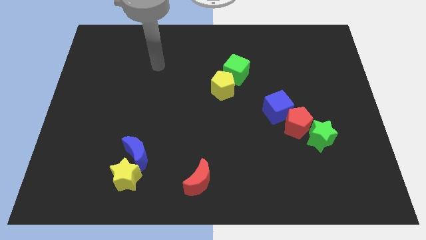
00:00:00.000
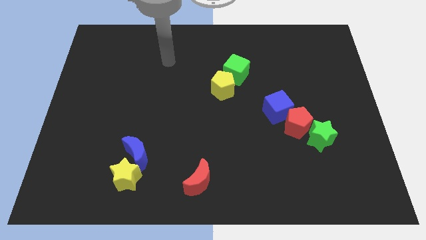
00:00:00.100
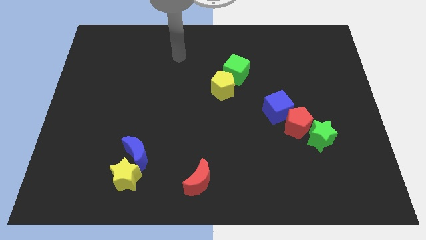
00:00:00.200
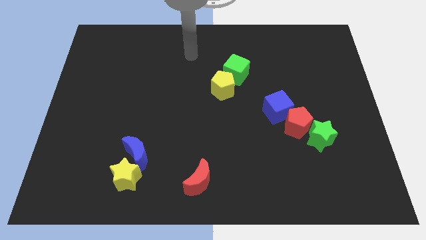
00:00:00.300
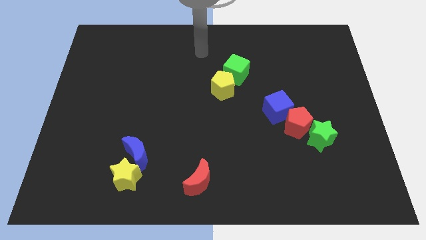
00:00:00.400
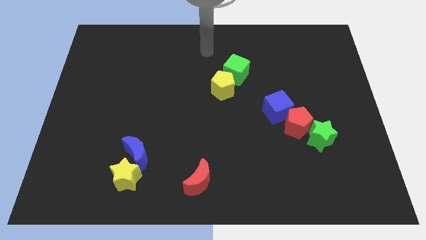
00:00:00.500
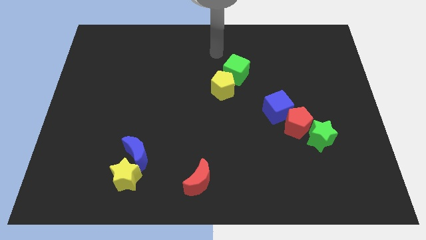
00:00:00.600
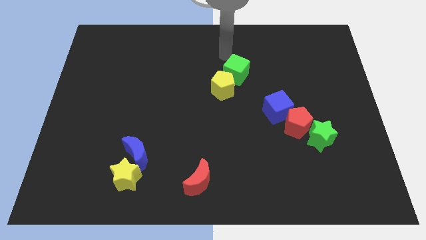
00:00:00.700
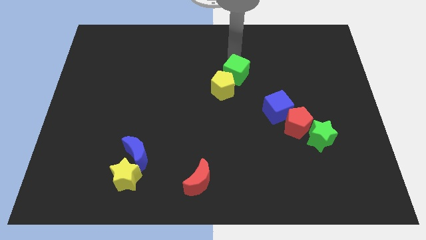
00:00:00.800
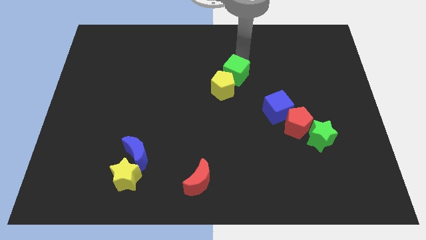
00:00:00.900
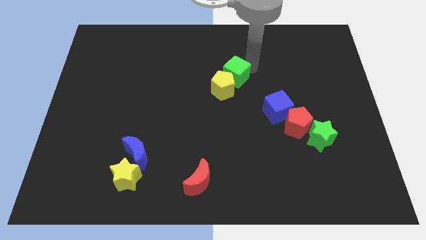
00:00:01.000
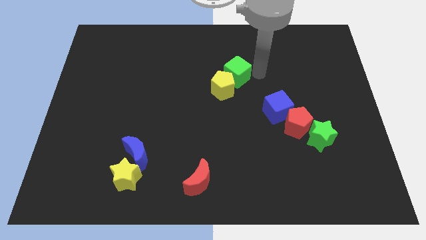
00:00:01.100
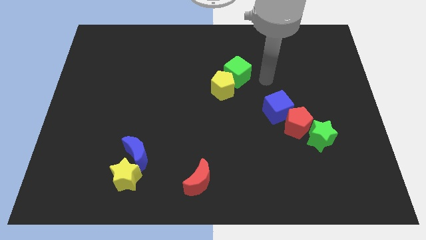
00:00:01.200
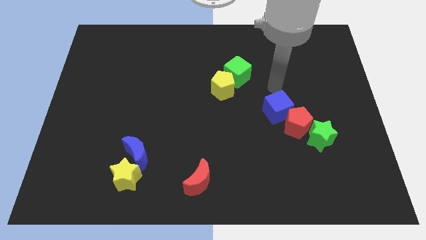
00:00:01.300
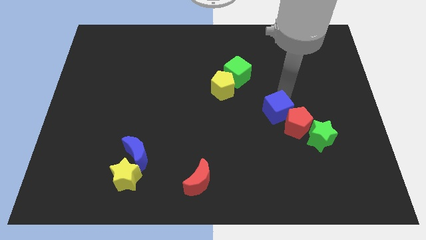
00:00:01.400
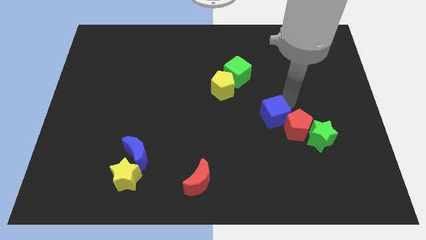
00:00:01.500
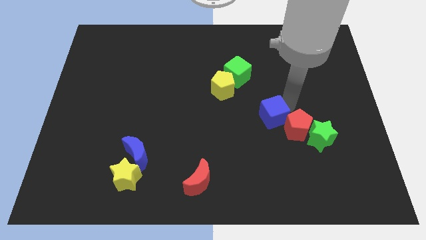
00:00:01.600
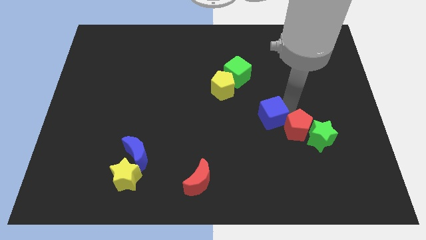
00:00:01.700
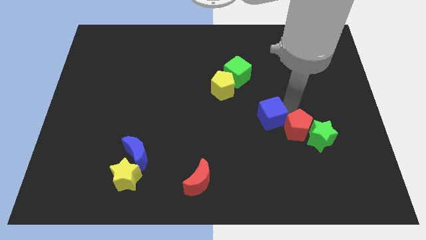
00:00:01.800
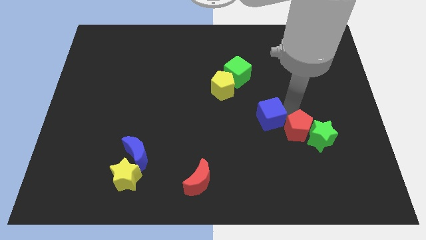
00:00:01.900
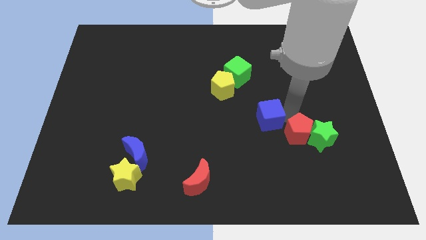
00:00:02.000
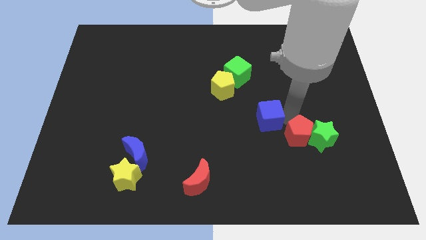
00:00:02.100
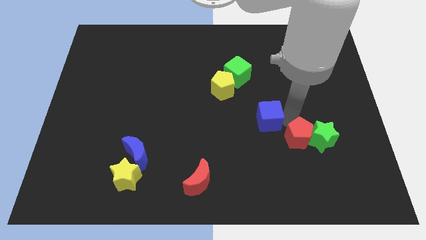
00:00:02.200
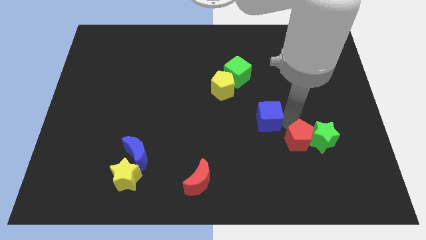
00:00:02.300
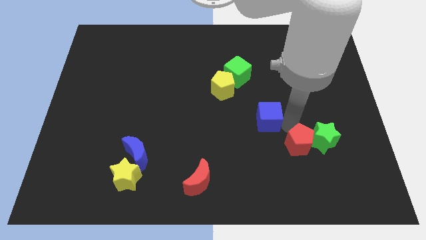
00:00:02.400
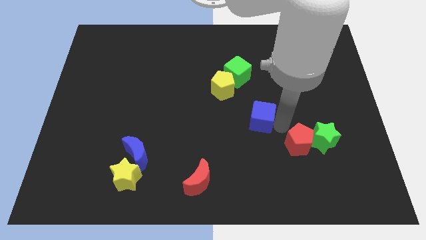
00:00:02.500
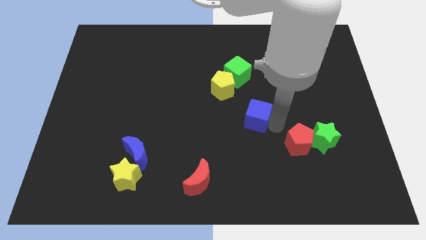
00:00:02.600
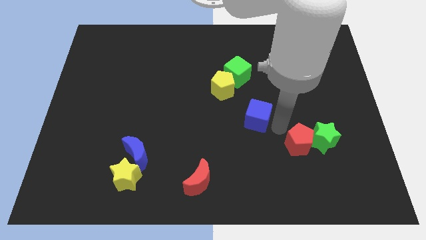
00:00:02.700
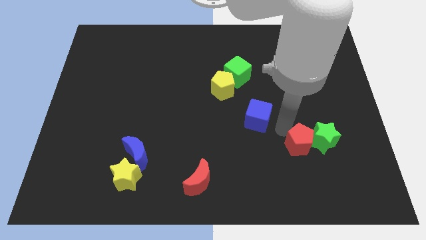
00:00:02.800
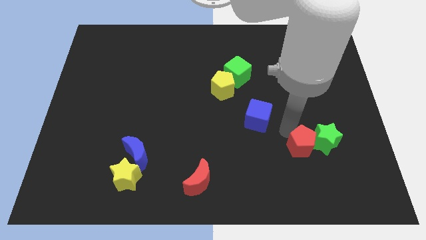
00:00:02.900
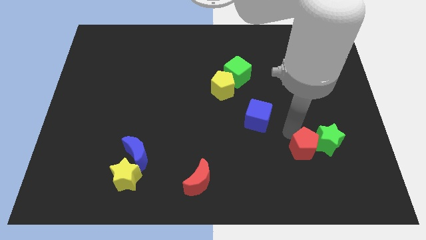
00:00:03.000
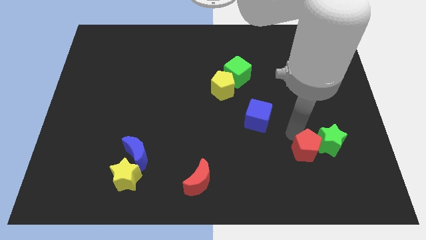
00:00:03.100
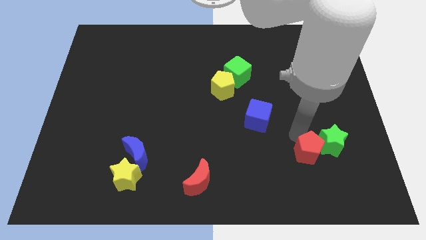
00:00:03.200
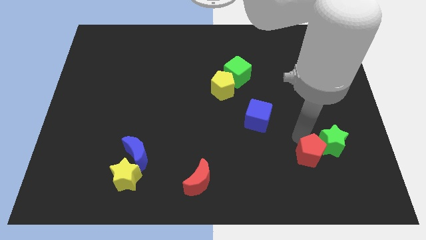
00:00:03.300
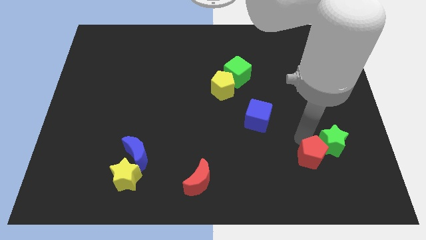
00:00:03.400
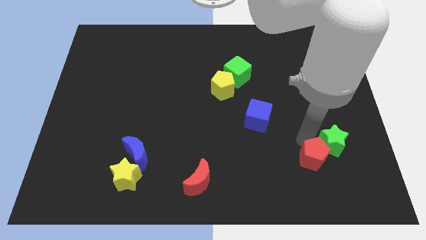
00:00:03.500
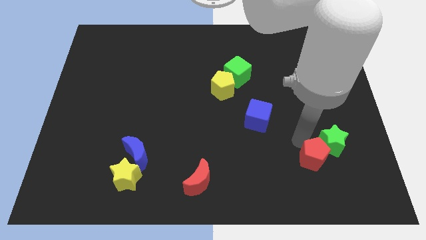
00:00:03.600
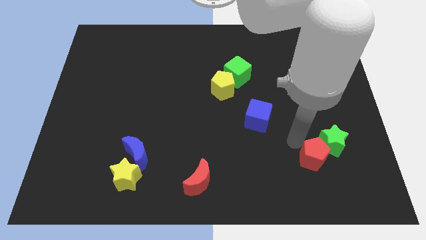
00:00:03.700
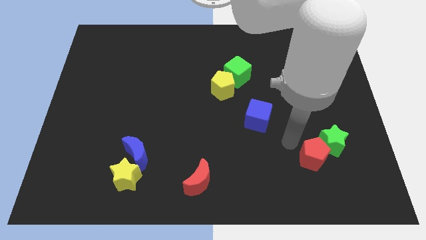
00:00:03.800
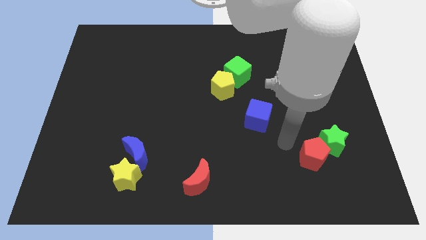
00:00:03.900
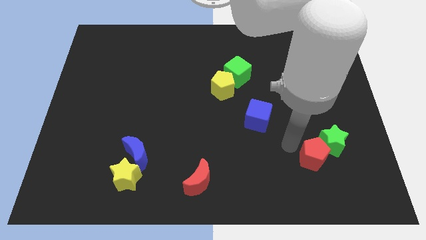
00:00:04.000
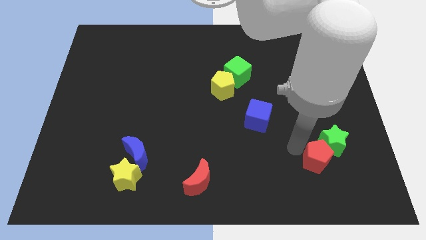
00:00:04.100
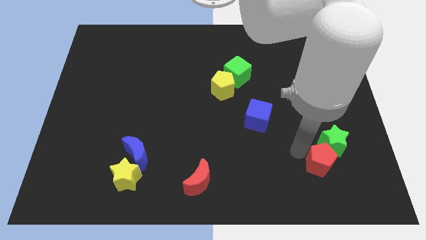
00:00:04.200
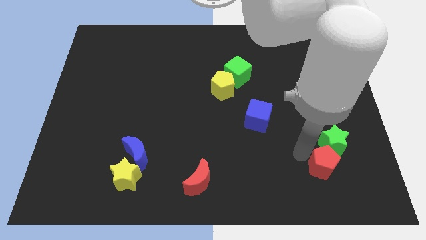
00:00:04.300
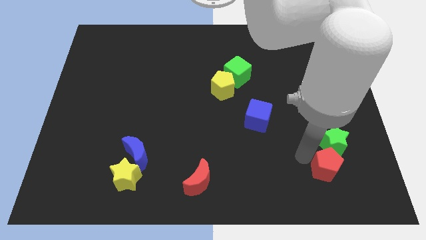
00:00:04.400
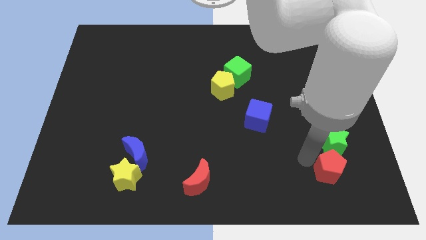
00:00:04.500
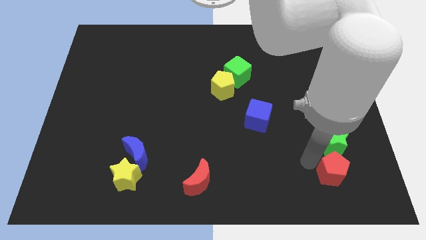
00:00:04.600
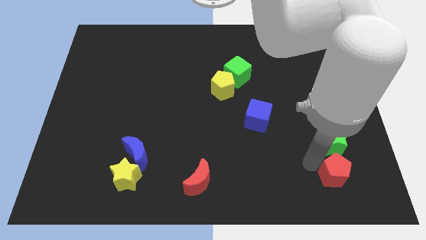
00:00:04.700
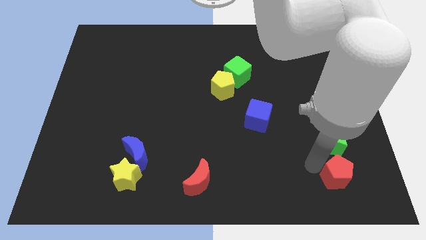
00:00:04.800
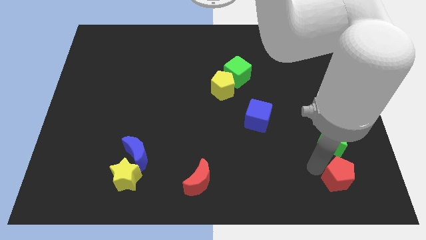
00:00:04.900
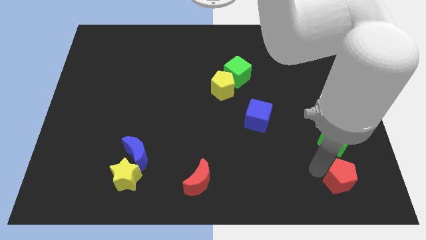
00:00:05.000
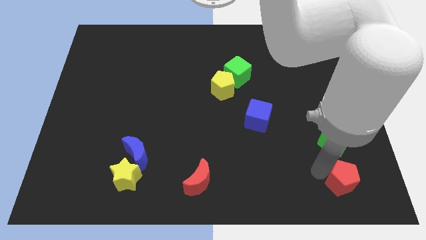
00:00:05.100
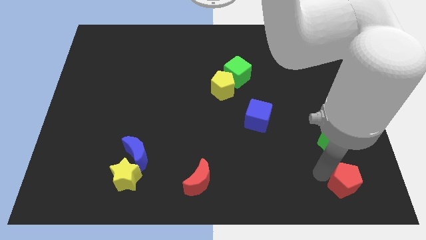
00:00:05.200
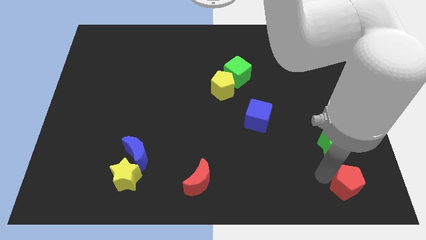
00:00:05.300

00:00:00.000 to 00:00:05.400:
push the red pentagon to the lower right corner

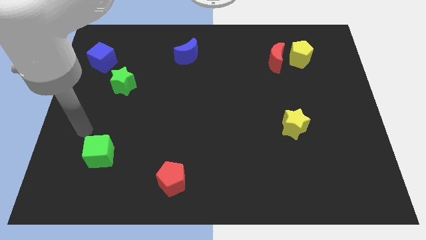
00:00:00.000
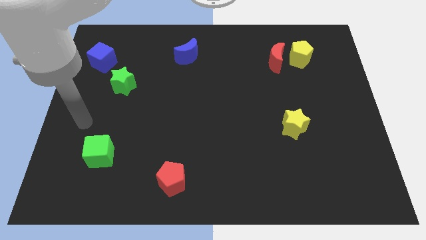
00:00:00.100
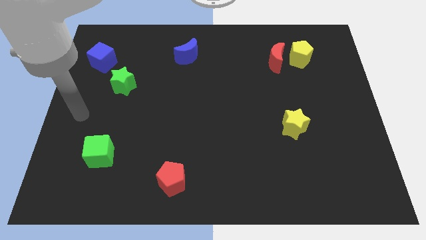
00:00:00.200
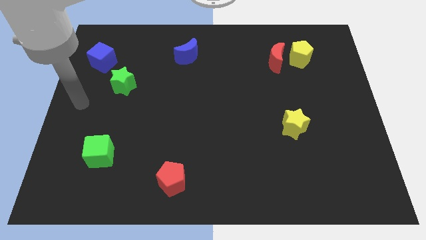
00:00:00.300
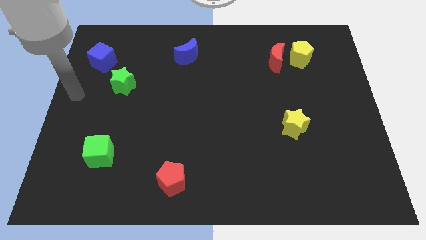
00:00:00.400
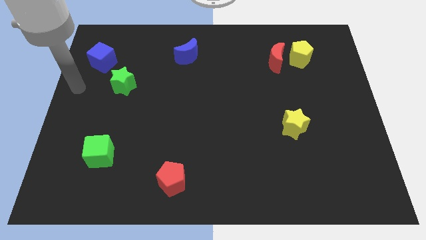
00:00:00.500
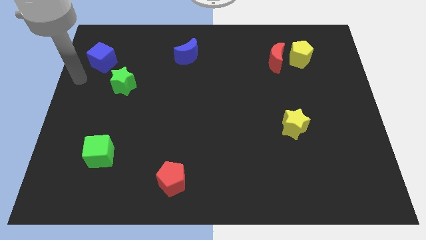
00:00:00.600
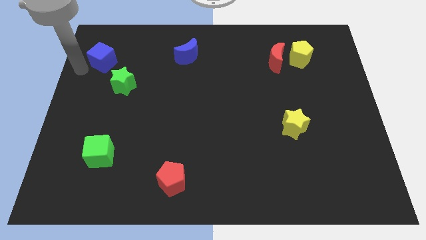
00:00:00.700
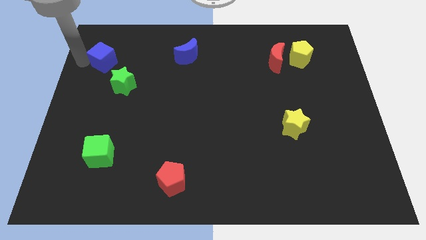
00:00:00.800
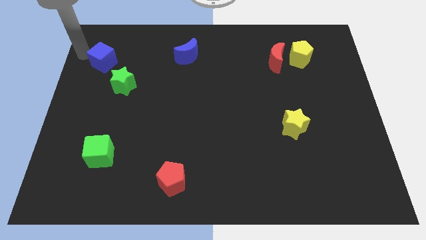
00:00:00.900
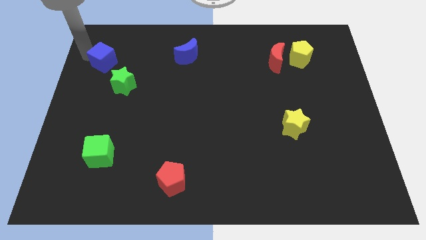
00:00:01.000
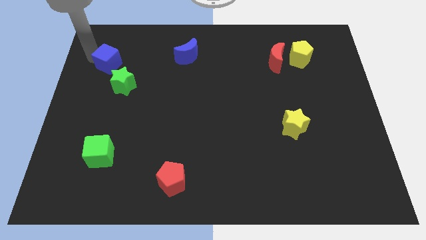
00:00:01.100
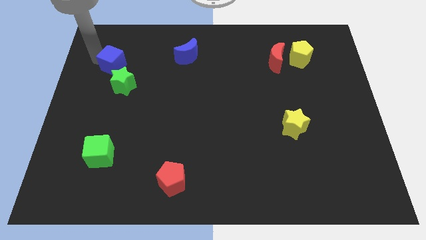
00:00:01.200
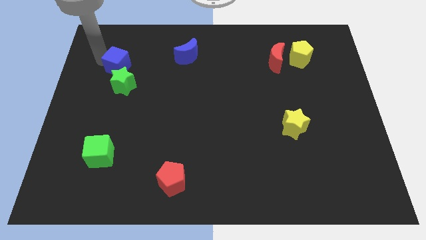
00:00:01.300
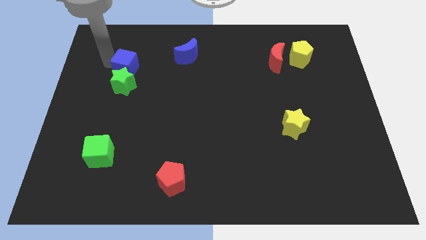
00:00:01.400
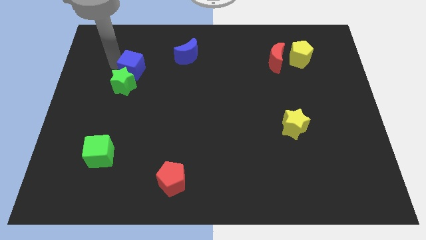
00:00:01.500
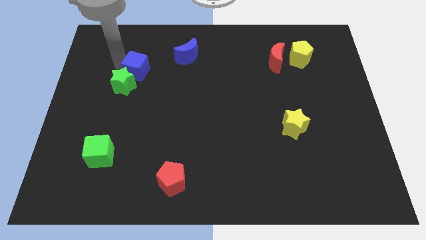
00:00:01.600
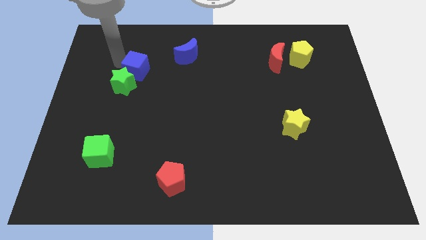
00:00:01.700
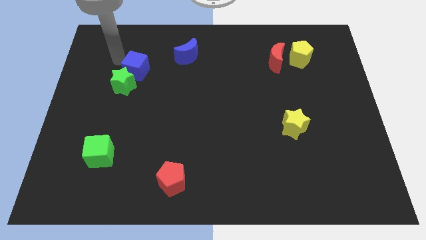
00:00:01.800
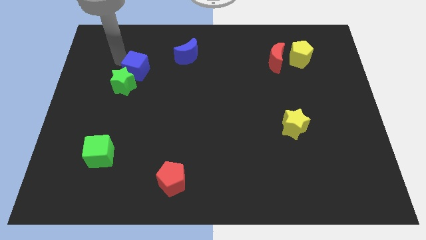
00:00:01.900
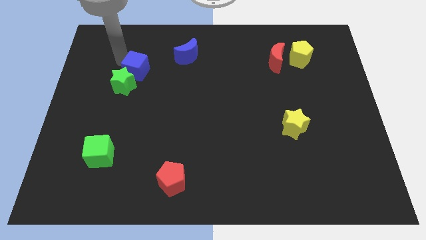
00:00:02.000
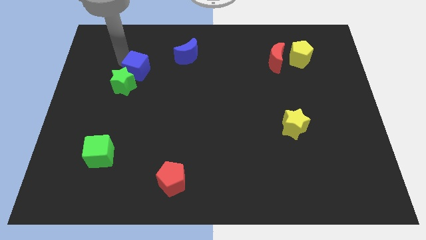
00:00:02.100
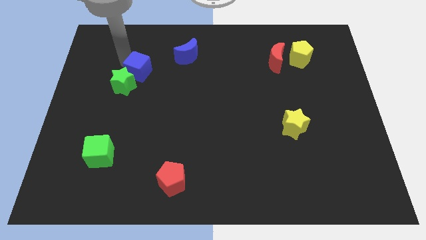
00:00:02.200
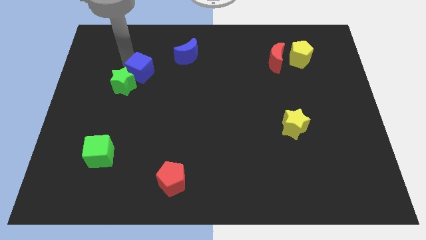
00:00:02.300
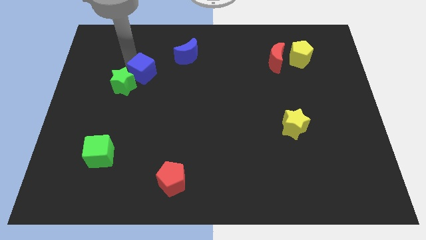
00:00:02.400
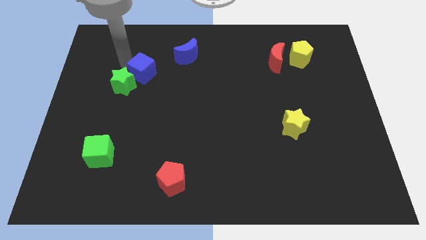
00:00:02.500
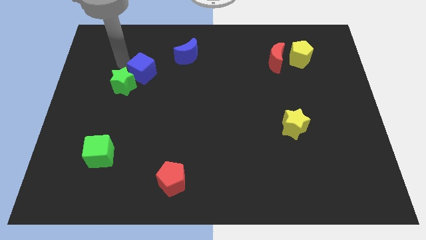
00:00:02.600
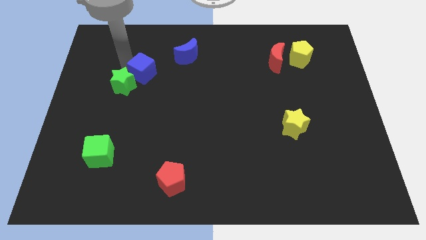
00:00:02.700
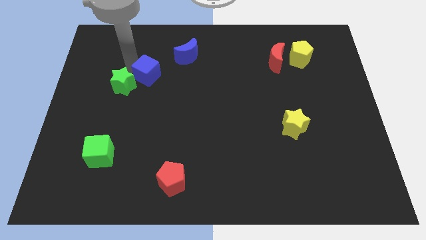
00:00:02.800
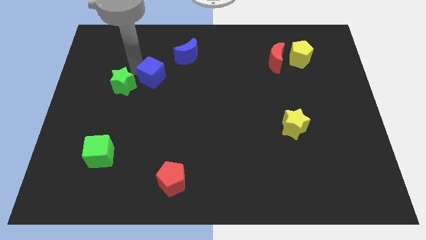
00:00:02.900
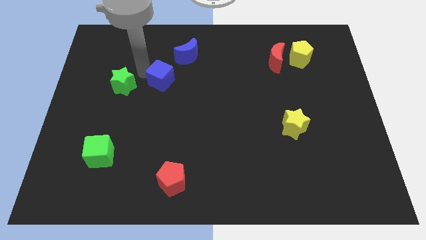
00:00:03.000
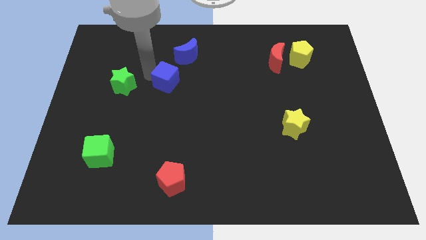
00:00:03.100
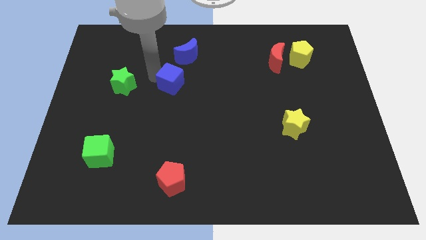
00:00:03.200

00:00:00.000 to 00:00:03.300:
push the blue cube to the center
